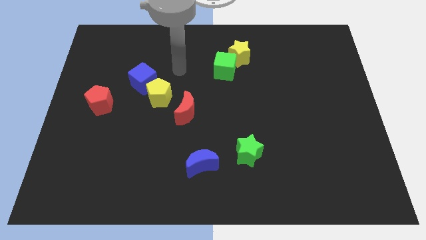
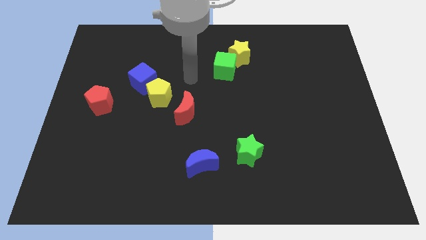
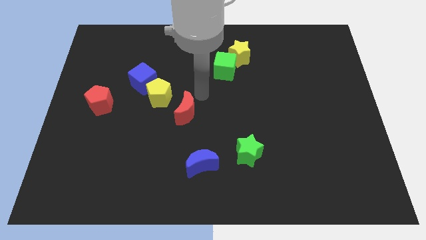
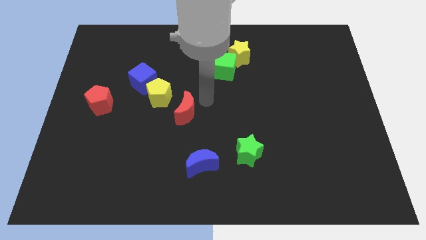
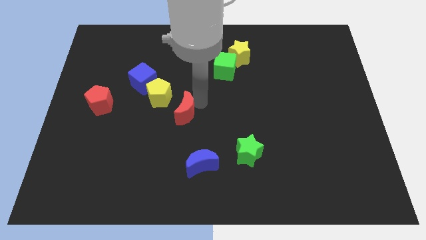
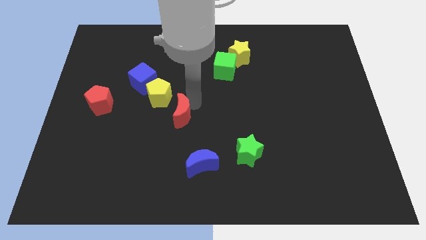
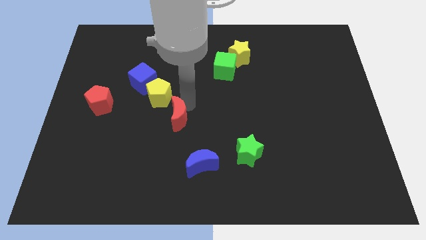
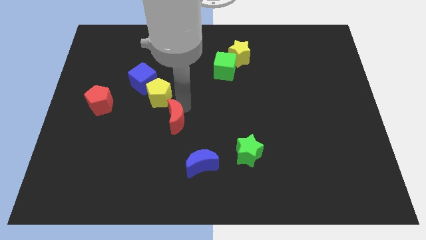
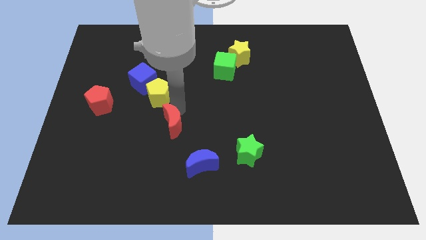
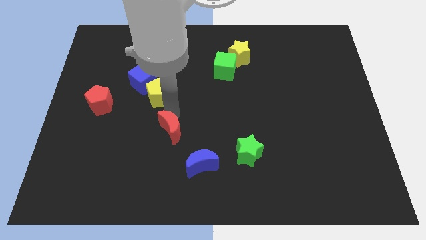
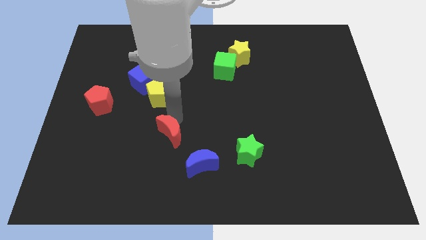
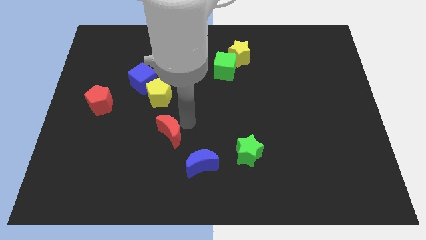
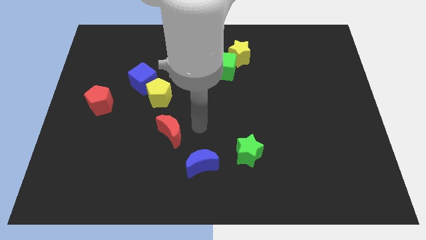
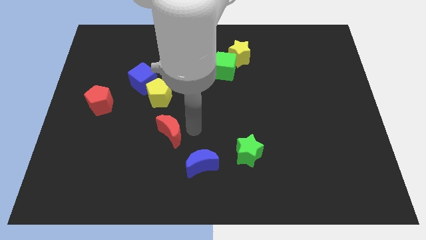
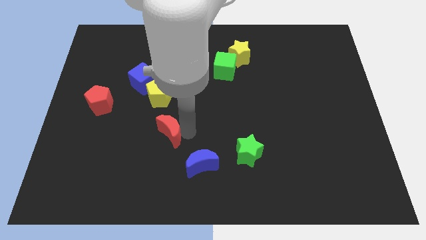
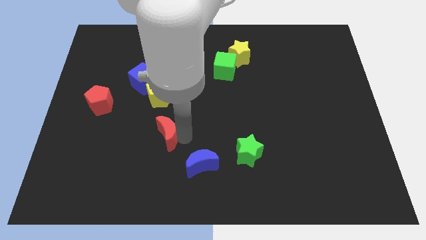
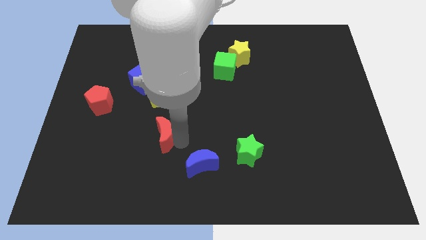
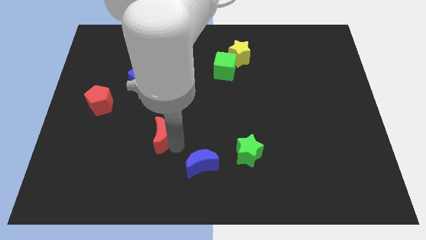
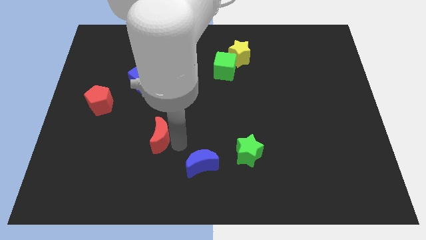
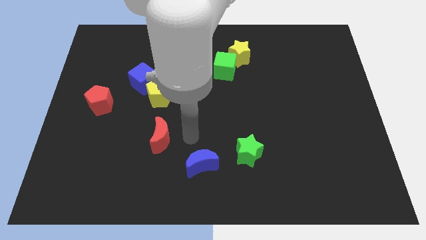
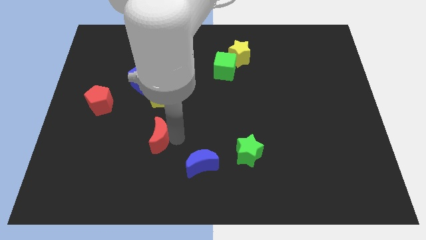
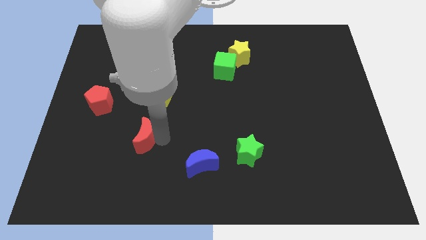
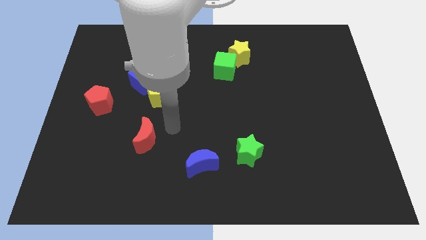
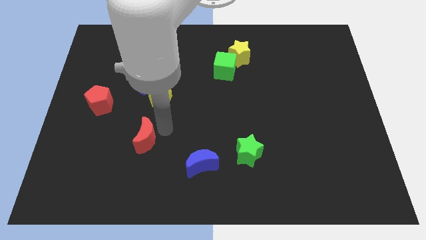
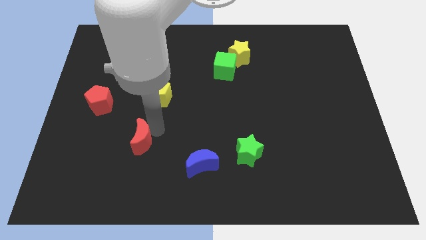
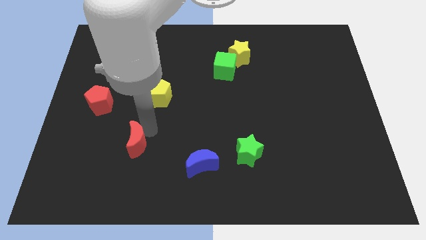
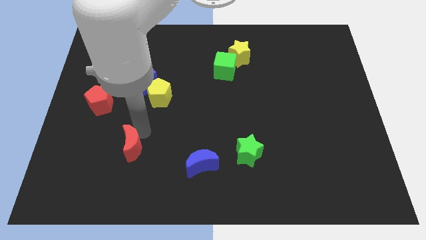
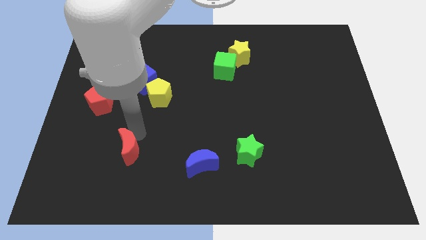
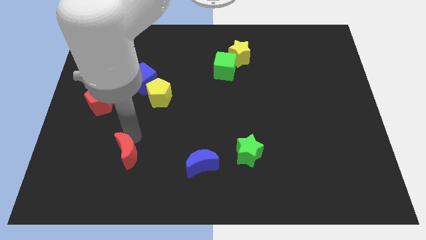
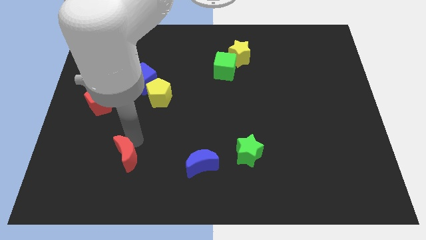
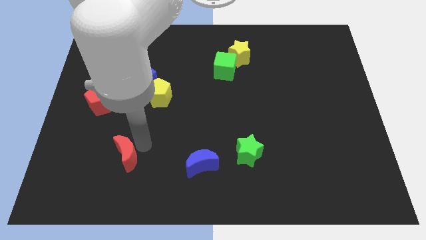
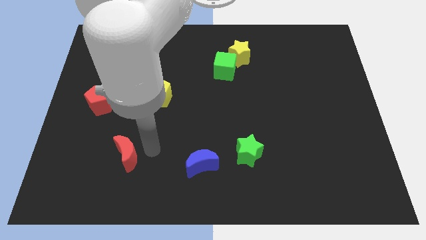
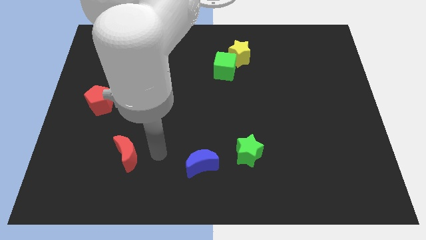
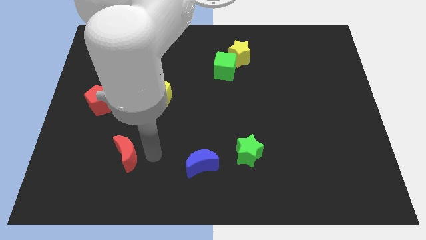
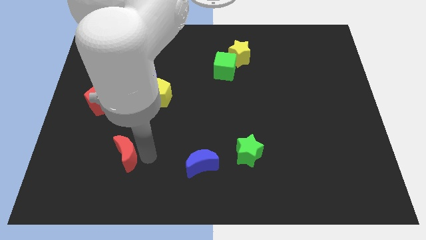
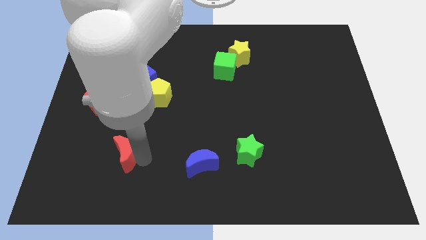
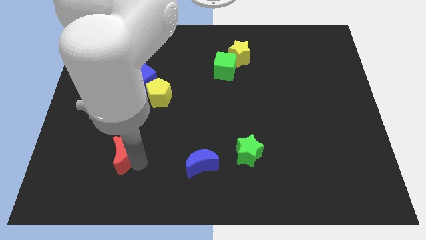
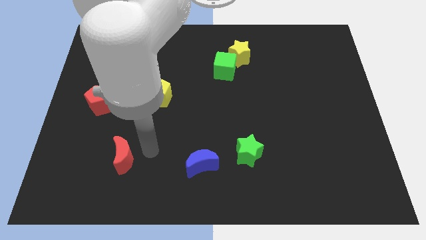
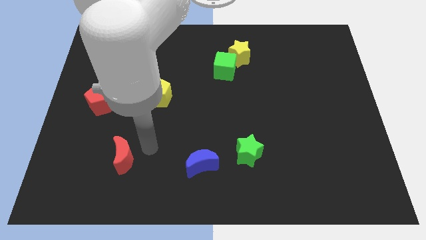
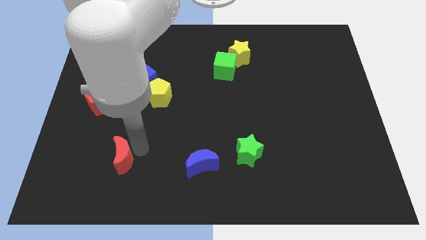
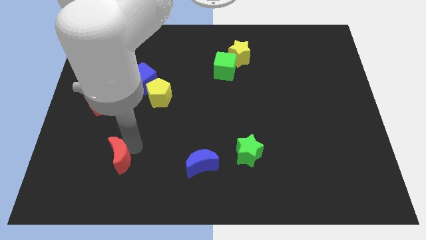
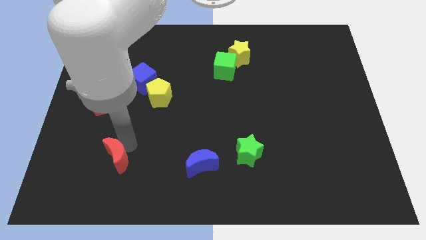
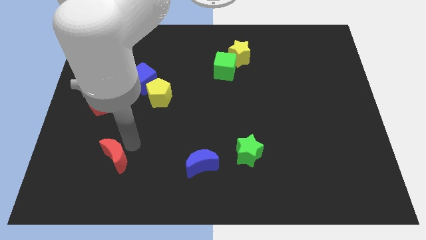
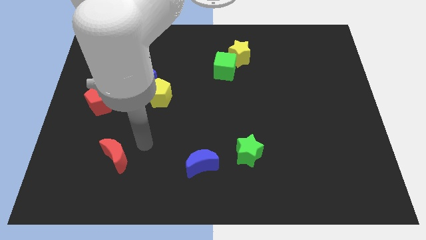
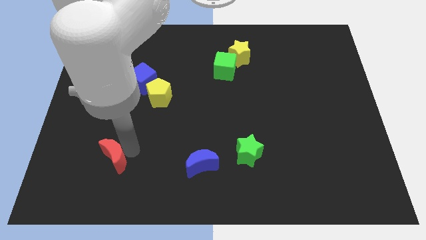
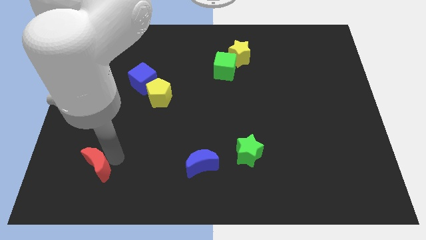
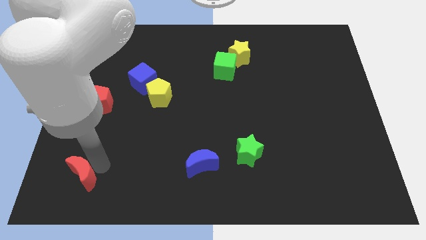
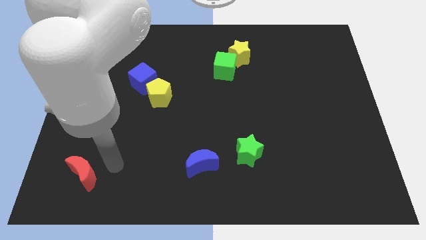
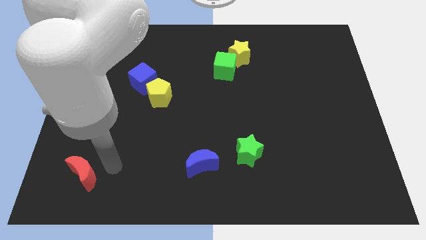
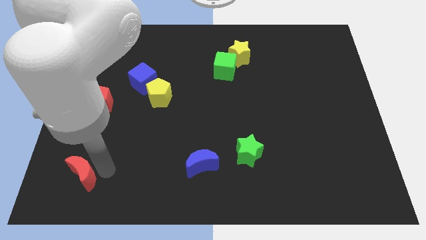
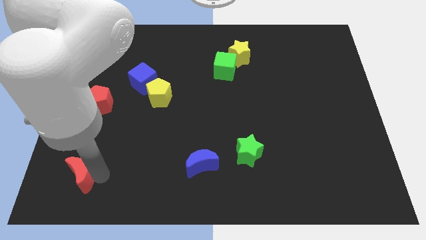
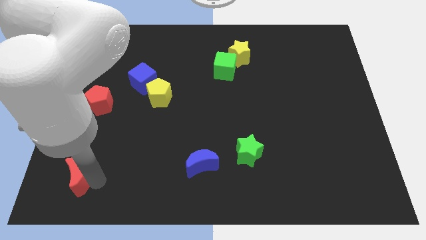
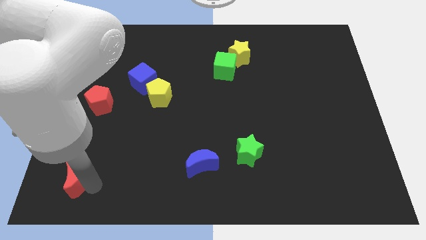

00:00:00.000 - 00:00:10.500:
push the red moon to the bottom left of the board

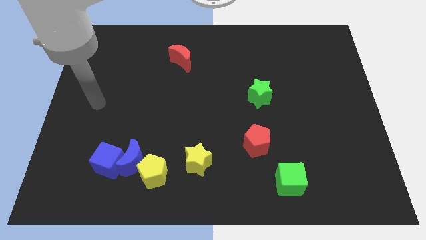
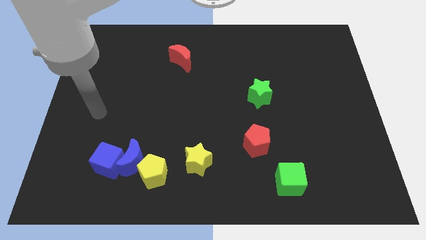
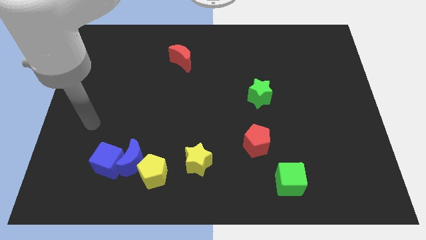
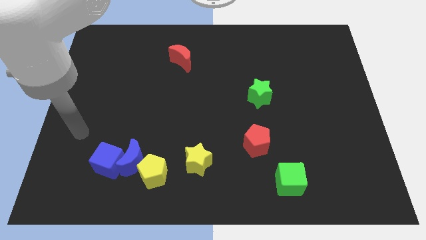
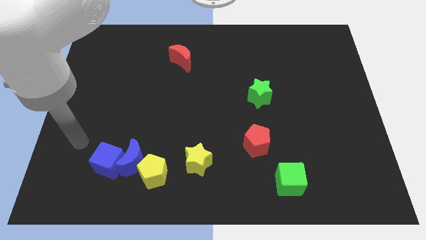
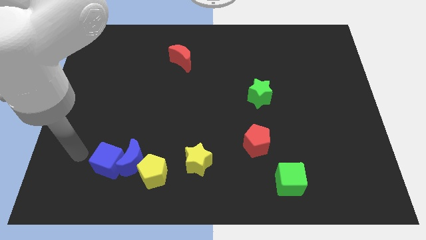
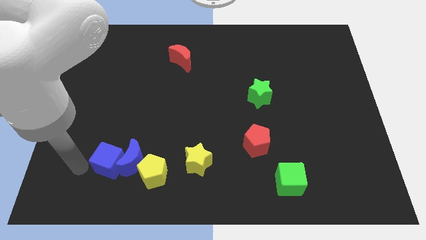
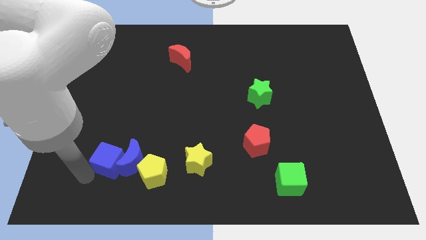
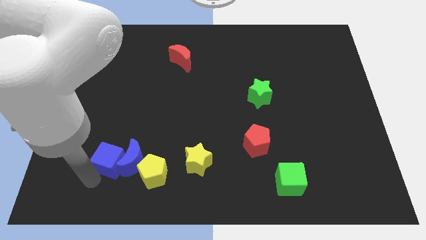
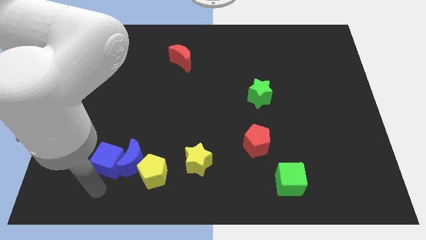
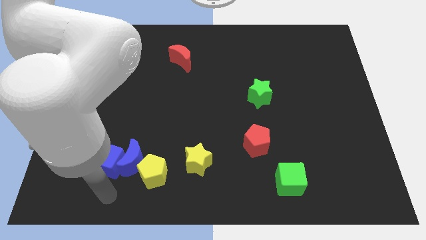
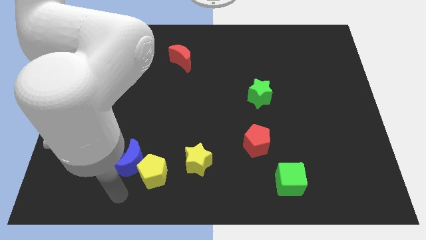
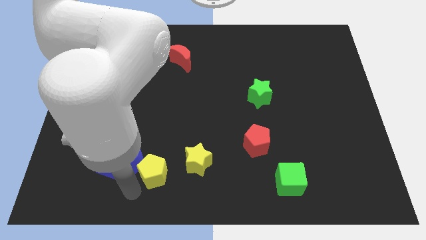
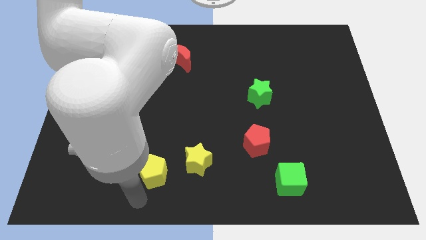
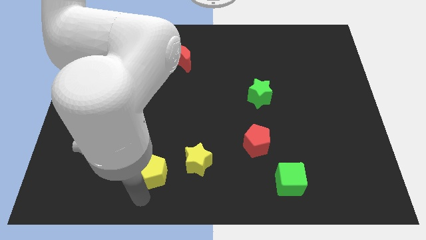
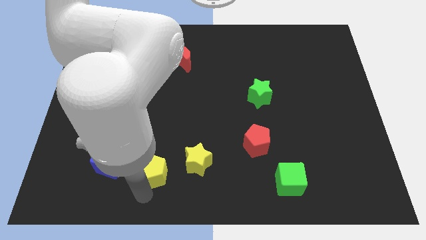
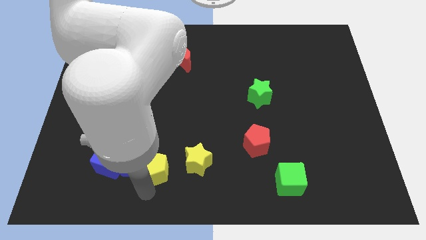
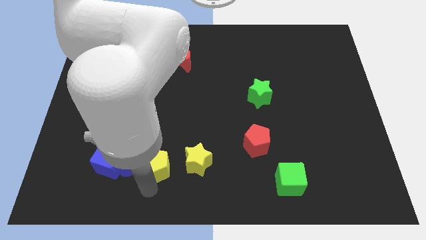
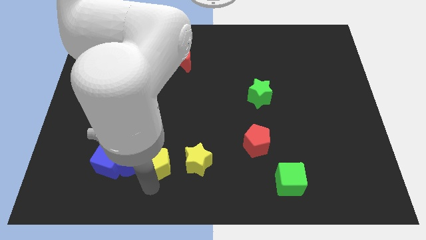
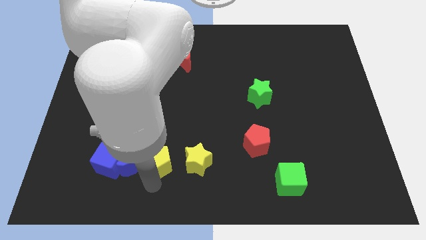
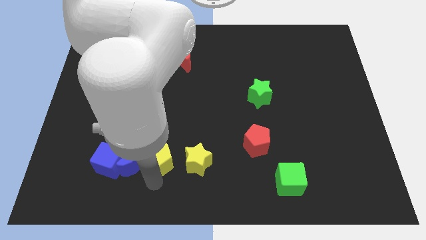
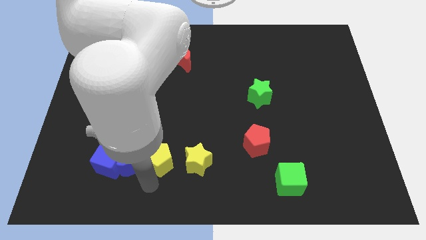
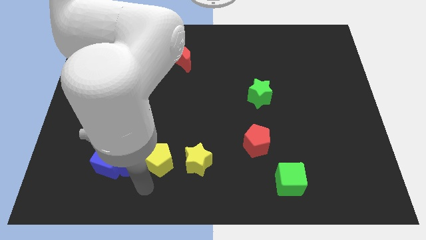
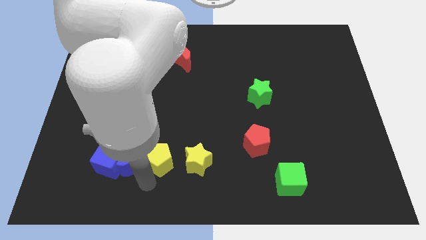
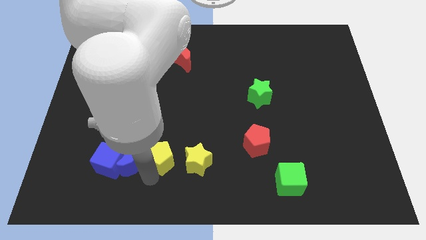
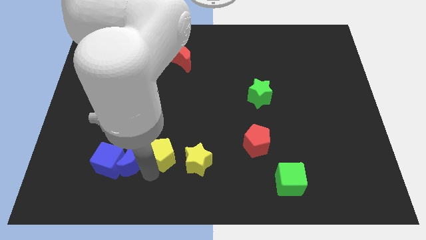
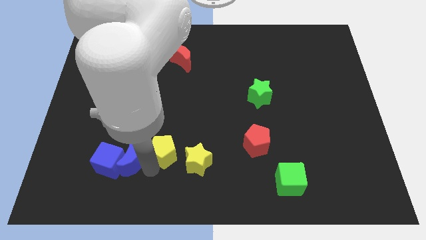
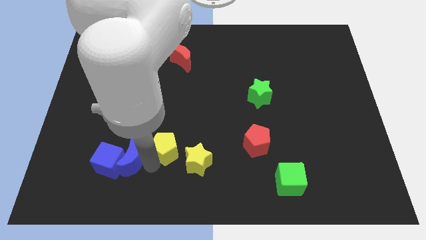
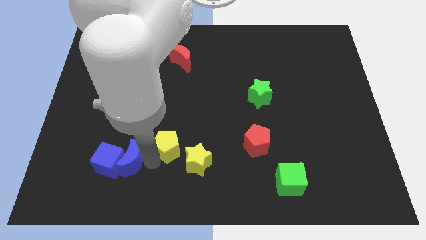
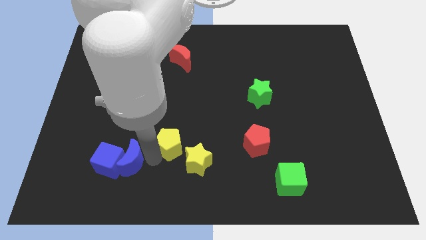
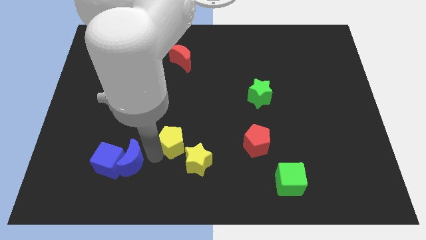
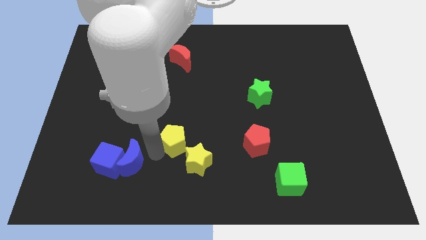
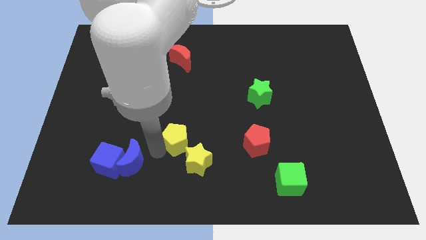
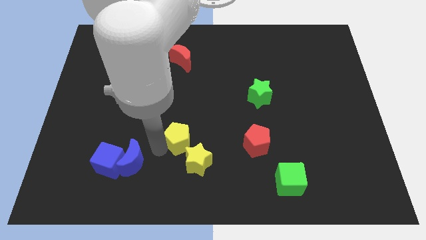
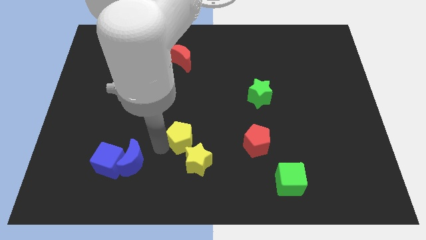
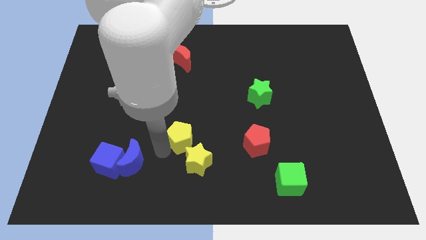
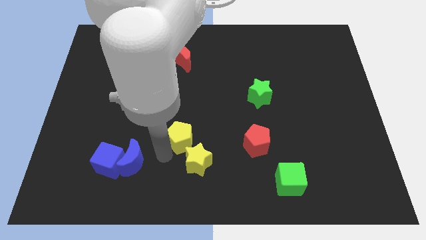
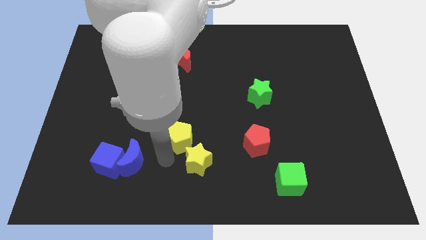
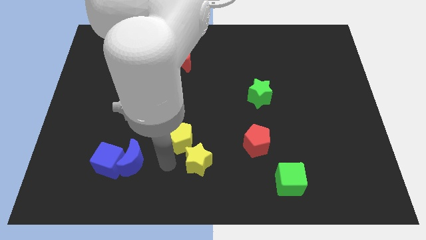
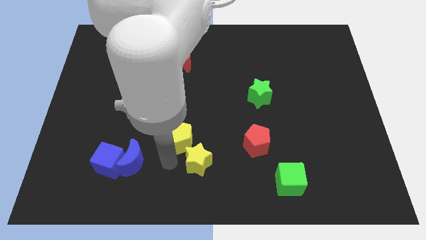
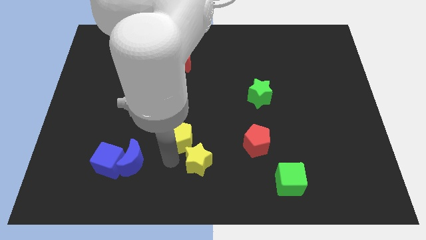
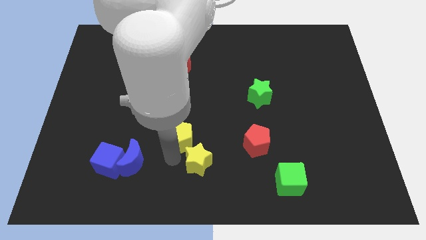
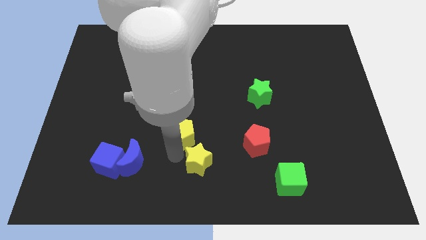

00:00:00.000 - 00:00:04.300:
push the yellow pentagon to the center
